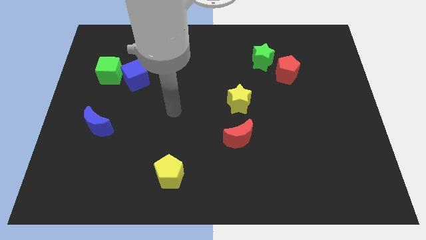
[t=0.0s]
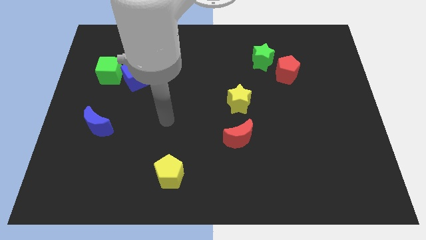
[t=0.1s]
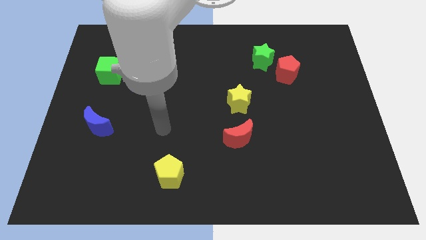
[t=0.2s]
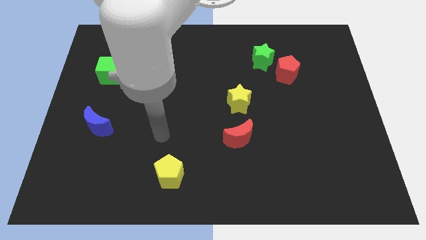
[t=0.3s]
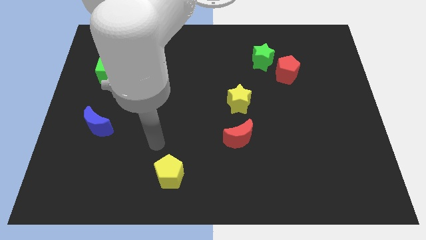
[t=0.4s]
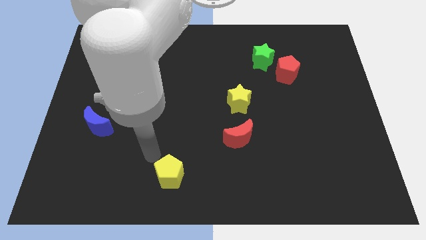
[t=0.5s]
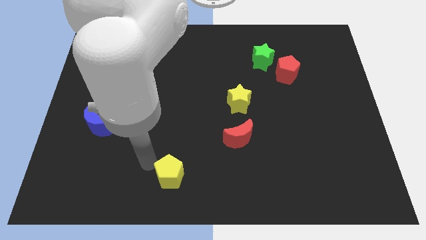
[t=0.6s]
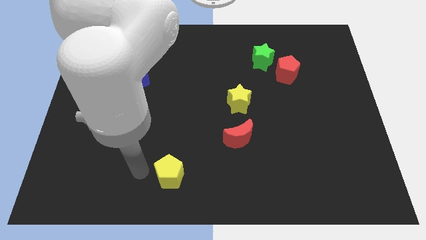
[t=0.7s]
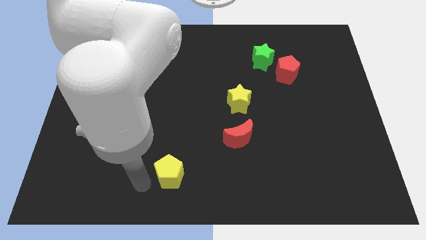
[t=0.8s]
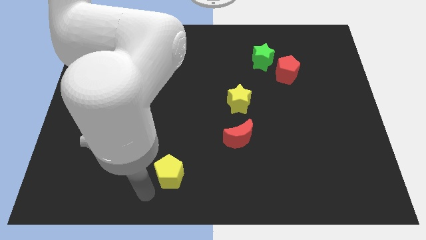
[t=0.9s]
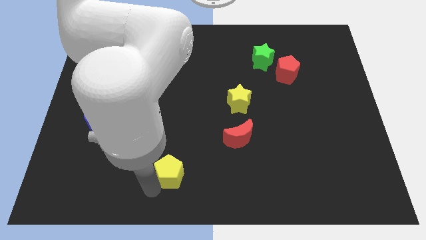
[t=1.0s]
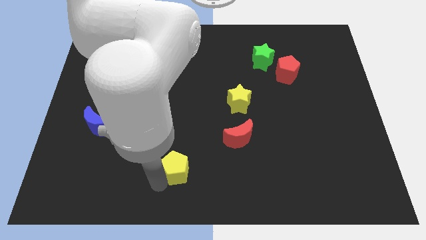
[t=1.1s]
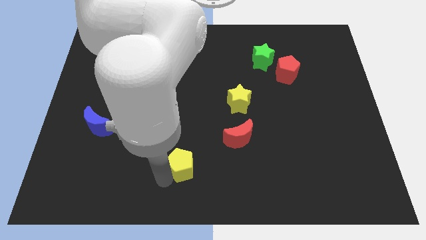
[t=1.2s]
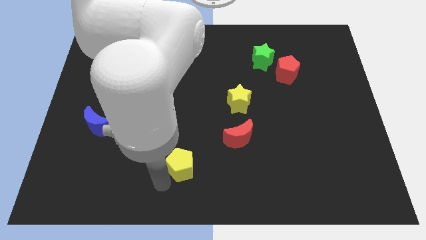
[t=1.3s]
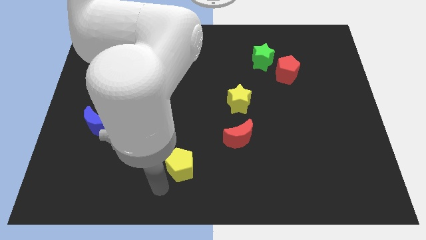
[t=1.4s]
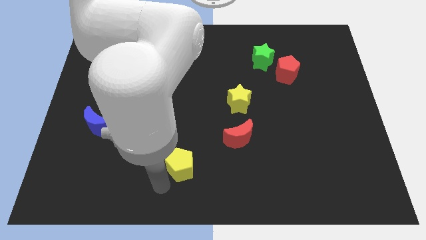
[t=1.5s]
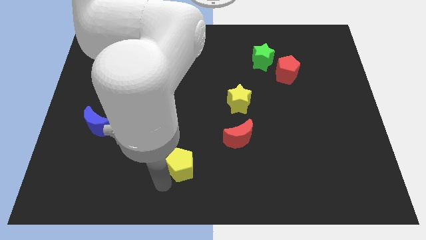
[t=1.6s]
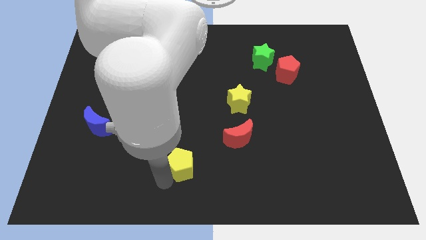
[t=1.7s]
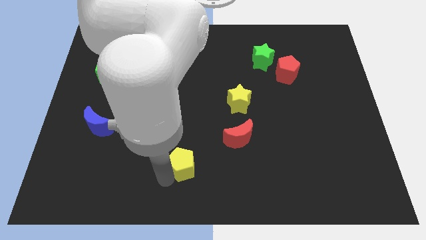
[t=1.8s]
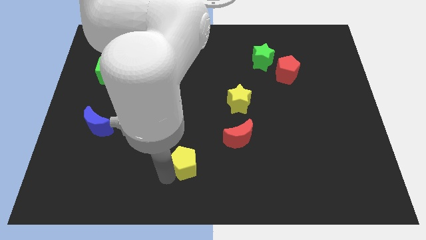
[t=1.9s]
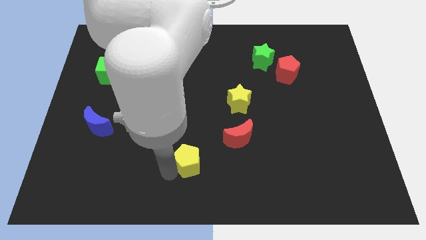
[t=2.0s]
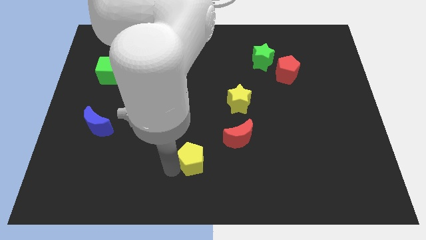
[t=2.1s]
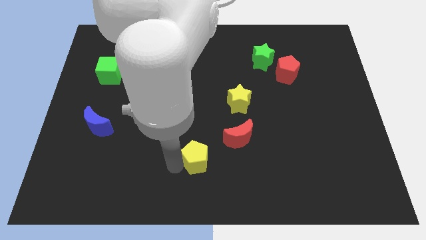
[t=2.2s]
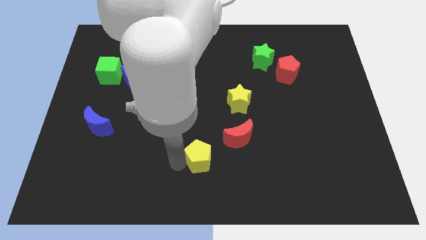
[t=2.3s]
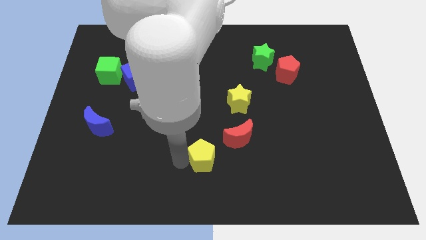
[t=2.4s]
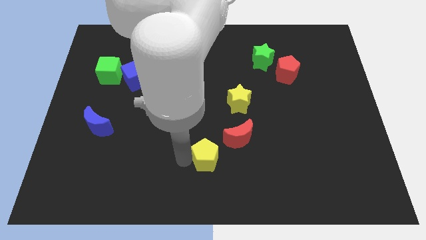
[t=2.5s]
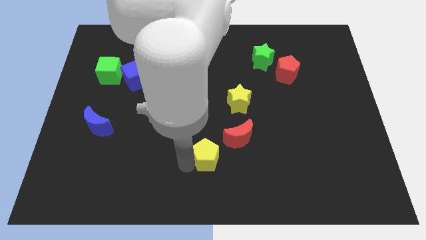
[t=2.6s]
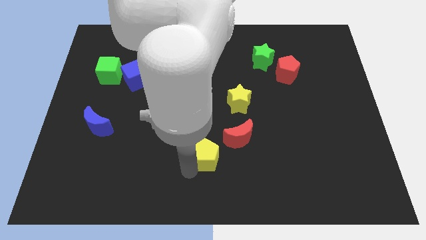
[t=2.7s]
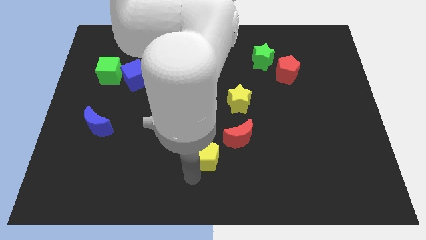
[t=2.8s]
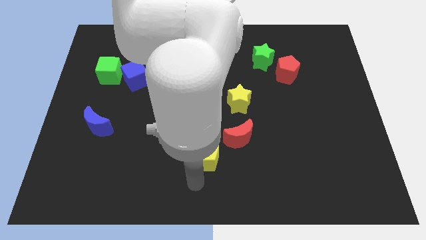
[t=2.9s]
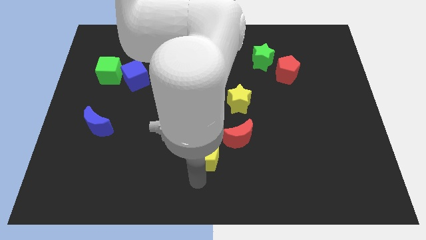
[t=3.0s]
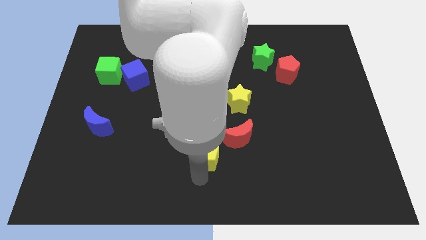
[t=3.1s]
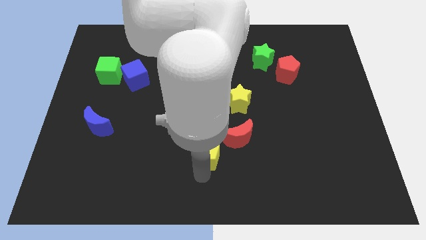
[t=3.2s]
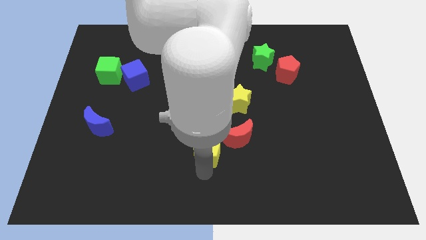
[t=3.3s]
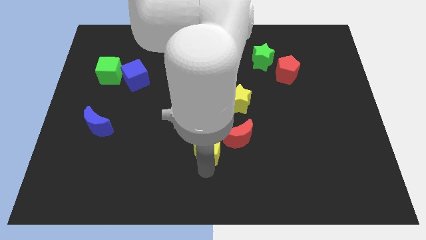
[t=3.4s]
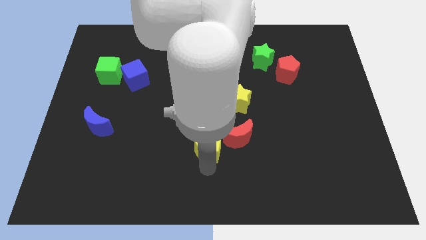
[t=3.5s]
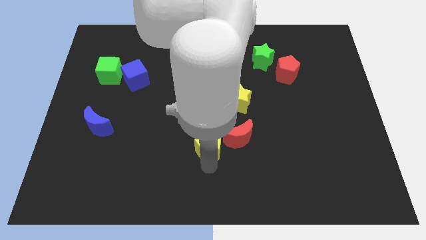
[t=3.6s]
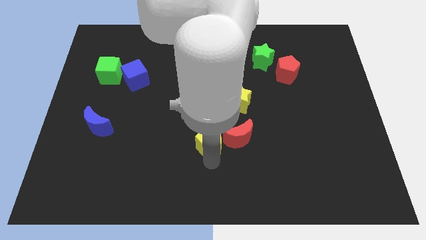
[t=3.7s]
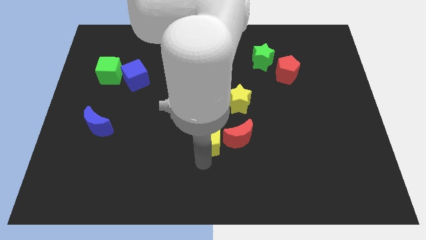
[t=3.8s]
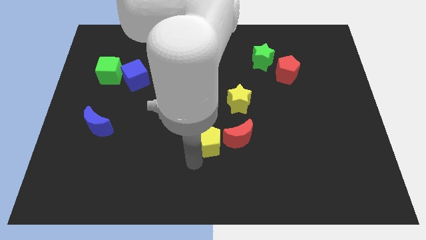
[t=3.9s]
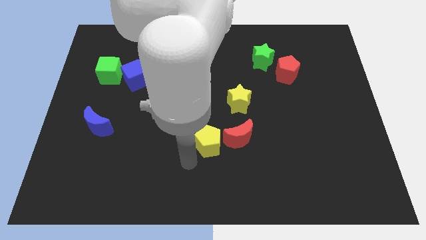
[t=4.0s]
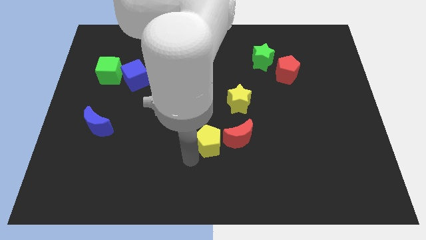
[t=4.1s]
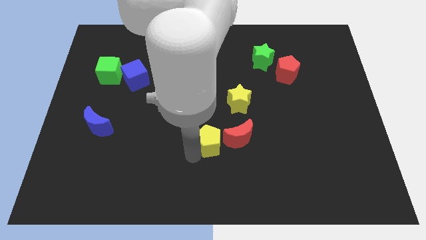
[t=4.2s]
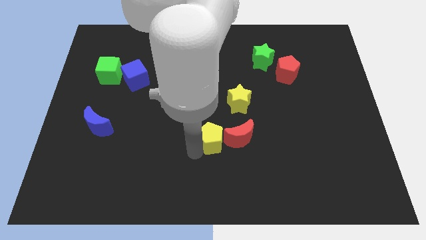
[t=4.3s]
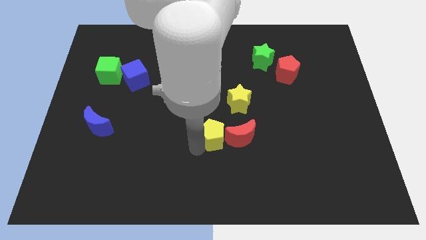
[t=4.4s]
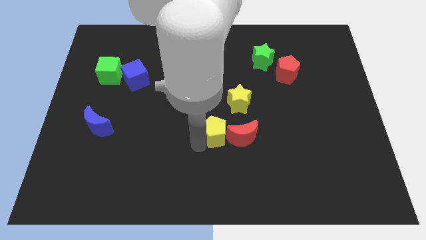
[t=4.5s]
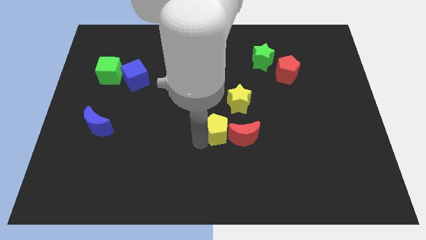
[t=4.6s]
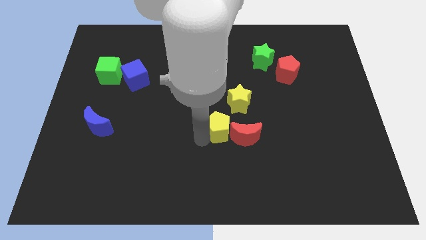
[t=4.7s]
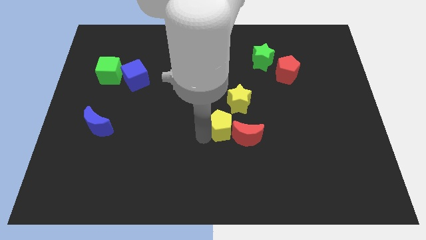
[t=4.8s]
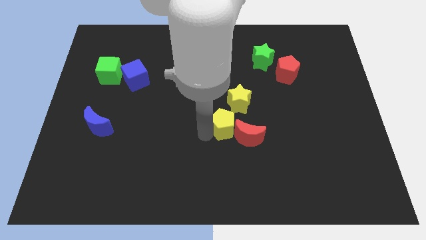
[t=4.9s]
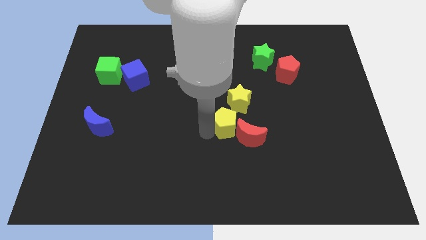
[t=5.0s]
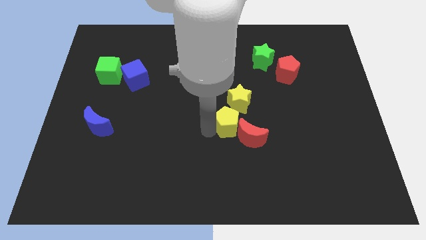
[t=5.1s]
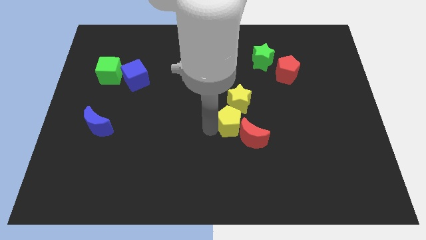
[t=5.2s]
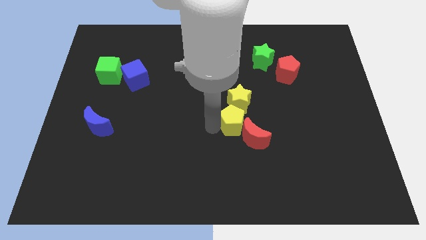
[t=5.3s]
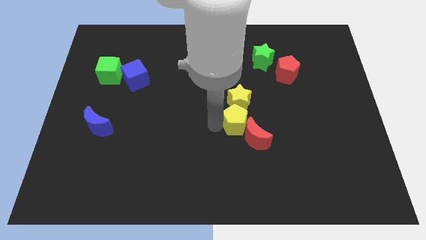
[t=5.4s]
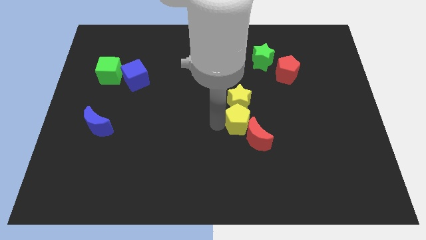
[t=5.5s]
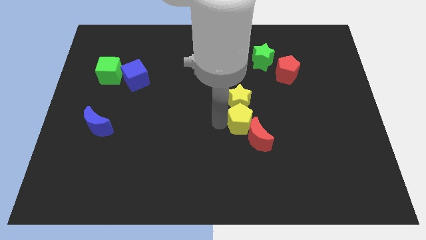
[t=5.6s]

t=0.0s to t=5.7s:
push the yellow pentagon diagonally up and to the right

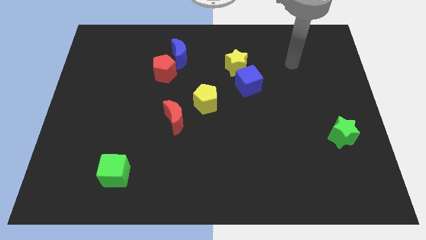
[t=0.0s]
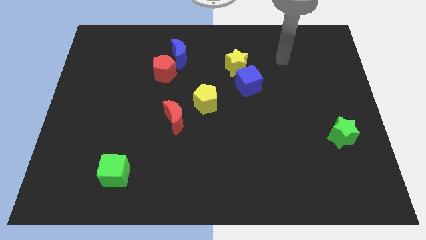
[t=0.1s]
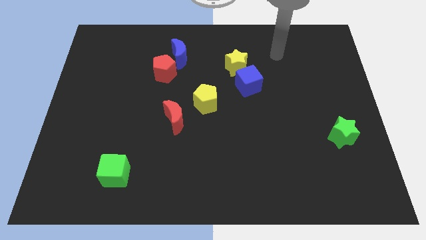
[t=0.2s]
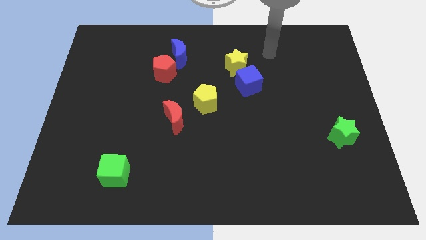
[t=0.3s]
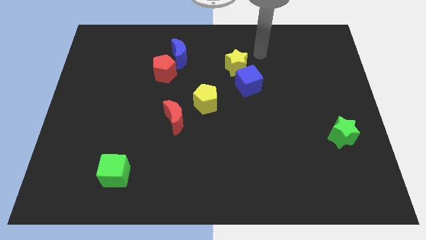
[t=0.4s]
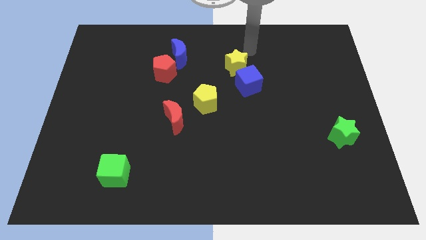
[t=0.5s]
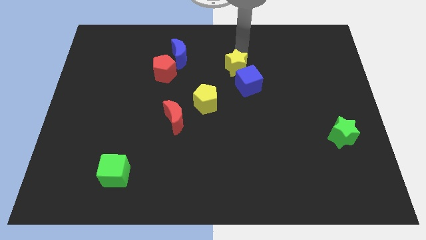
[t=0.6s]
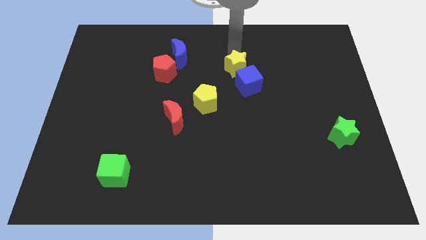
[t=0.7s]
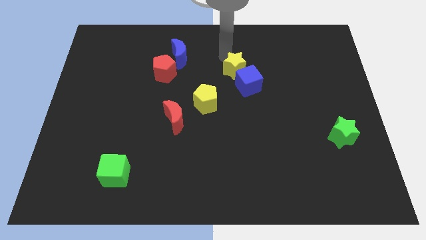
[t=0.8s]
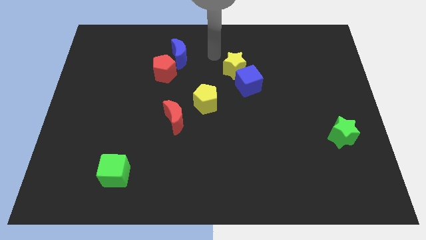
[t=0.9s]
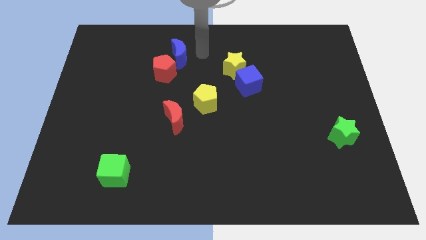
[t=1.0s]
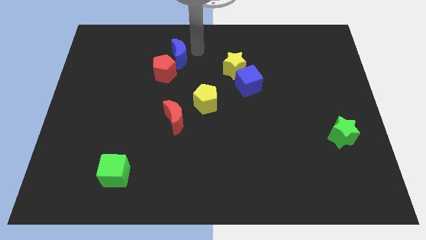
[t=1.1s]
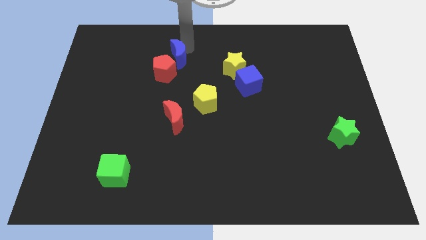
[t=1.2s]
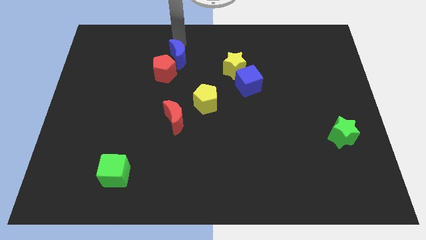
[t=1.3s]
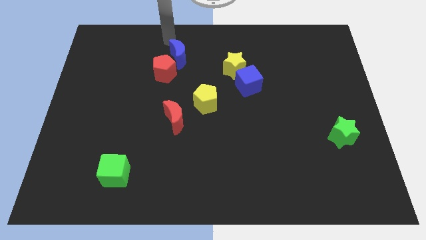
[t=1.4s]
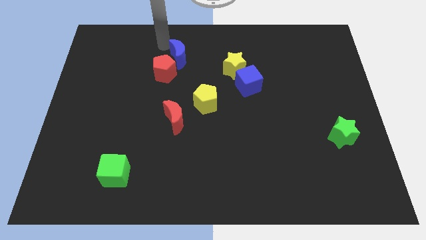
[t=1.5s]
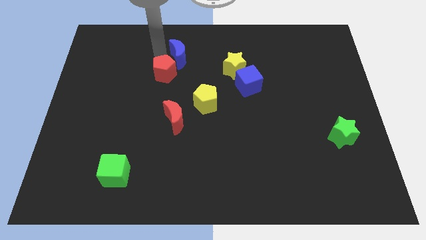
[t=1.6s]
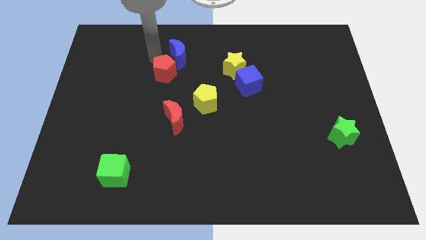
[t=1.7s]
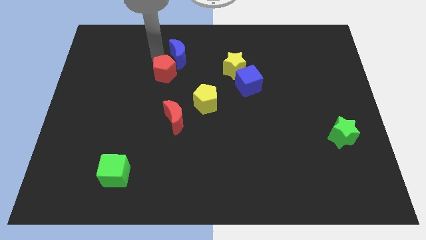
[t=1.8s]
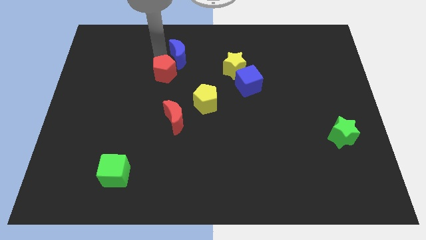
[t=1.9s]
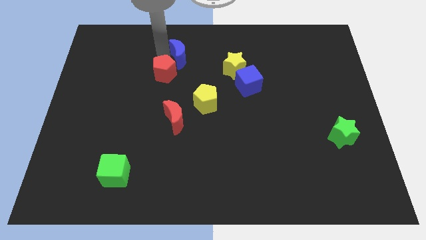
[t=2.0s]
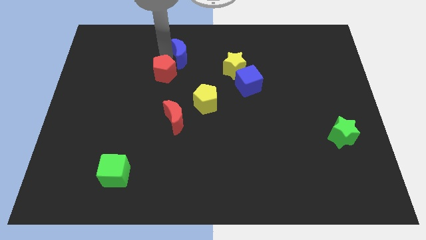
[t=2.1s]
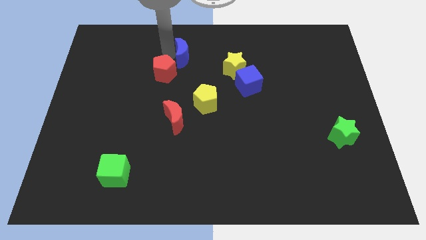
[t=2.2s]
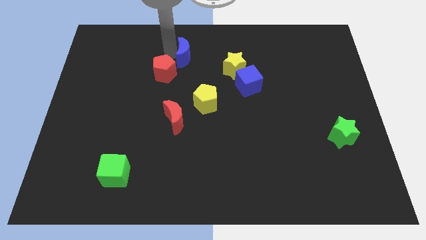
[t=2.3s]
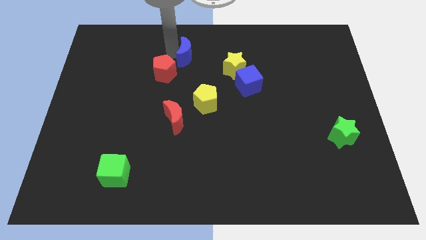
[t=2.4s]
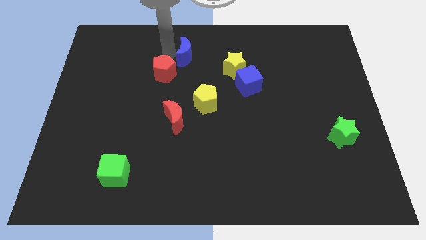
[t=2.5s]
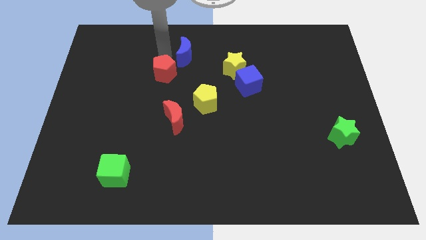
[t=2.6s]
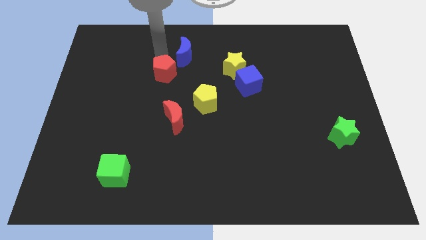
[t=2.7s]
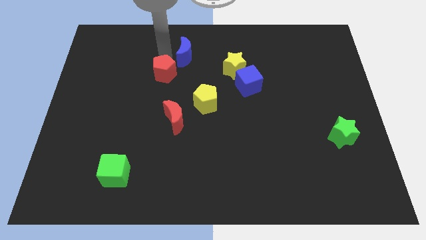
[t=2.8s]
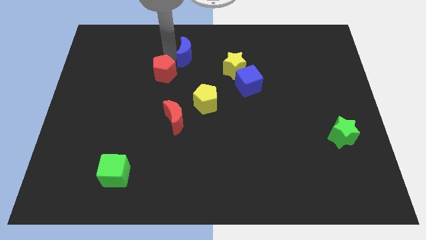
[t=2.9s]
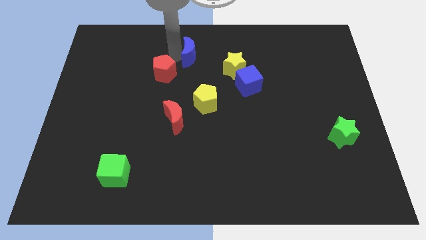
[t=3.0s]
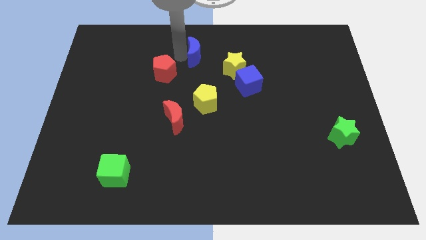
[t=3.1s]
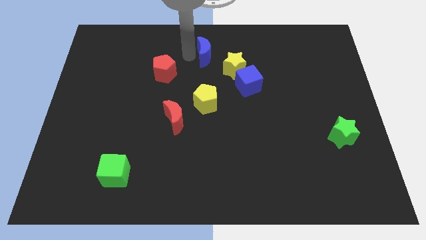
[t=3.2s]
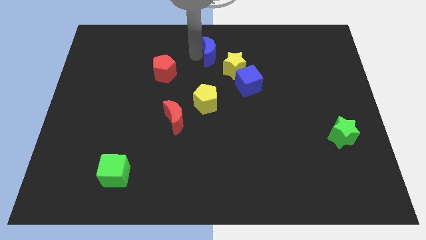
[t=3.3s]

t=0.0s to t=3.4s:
slightly slide the blue moon to the right
